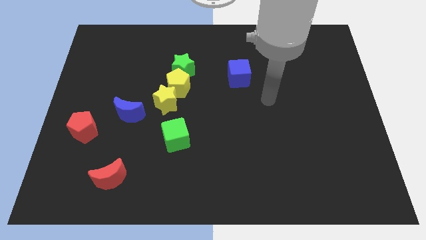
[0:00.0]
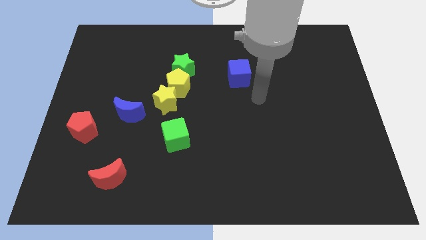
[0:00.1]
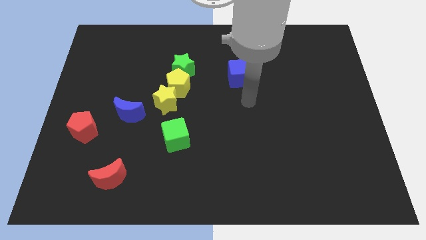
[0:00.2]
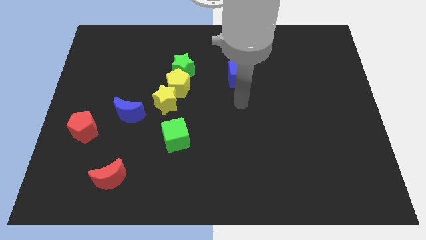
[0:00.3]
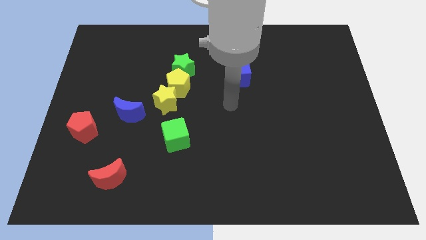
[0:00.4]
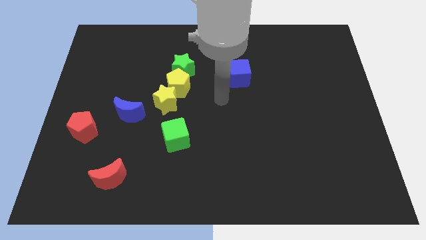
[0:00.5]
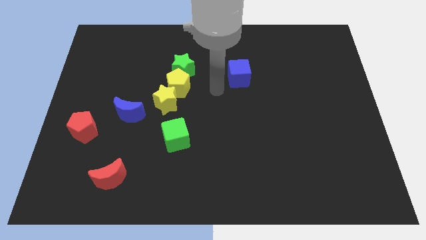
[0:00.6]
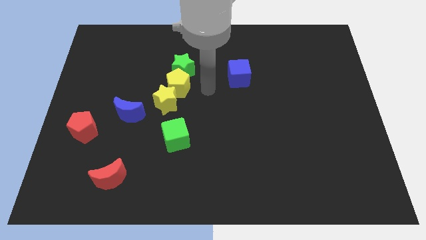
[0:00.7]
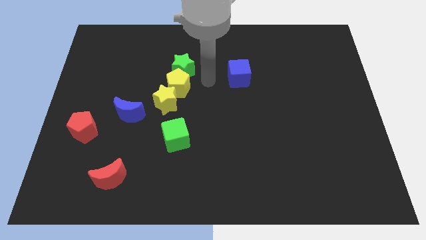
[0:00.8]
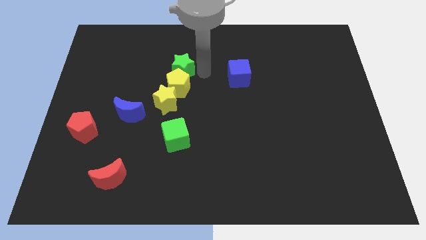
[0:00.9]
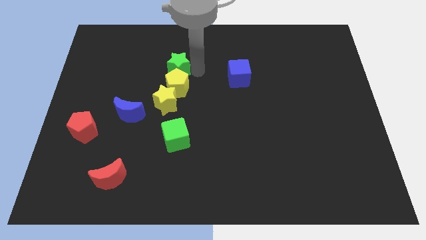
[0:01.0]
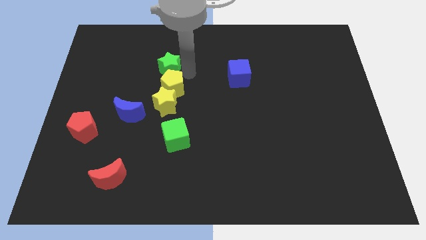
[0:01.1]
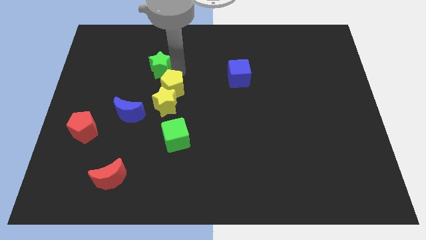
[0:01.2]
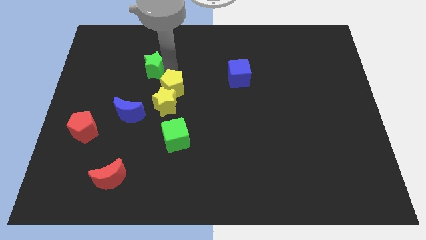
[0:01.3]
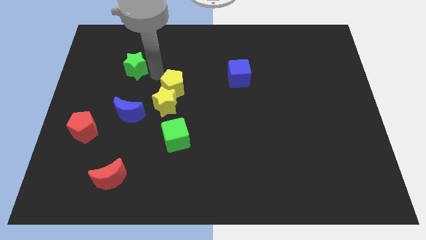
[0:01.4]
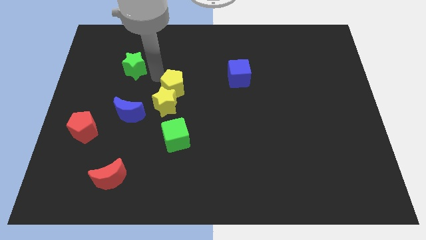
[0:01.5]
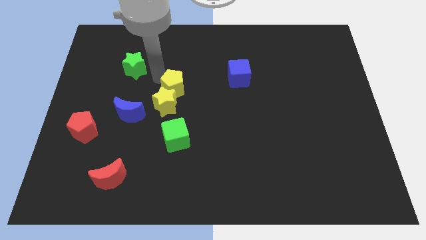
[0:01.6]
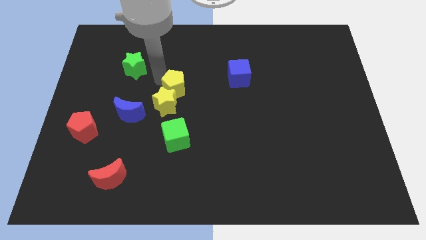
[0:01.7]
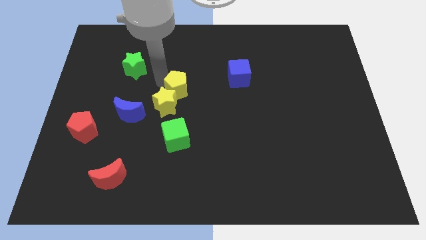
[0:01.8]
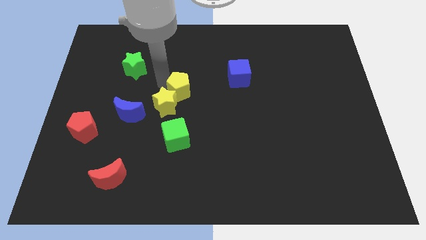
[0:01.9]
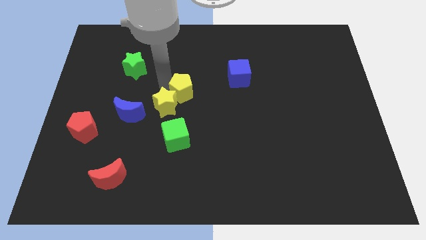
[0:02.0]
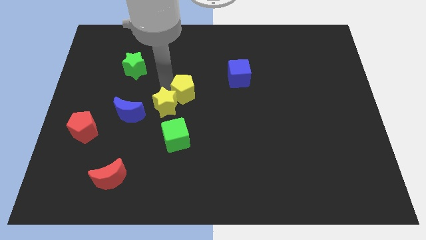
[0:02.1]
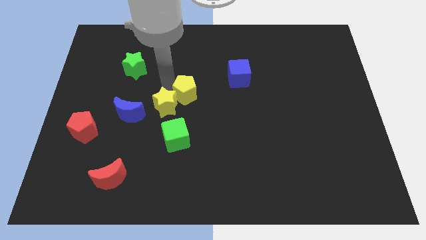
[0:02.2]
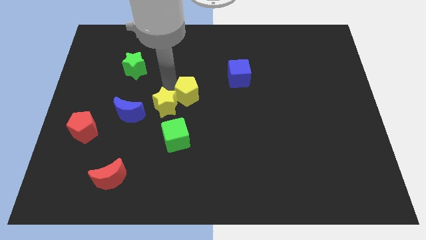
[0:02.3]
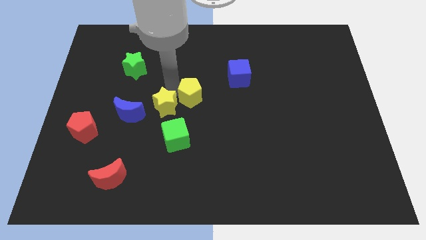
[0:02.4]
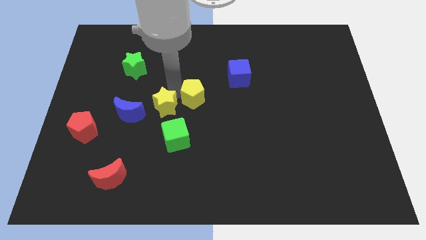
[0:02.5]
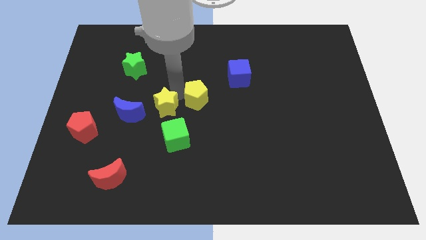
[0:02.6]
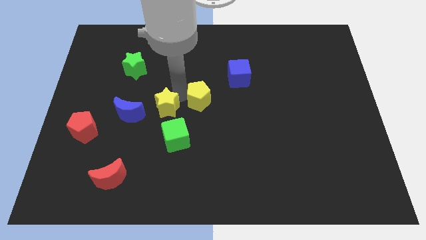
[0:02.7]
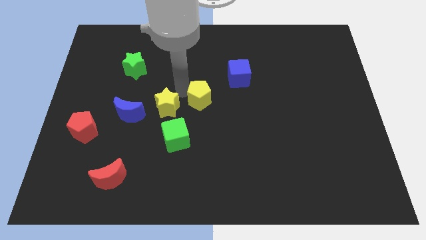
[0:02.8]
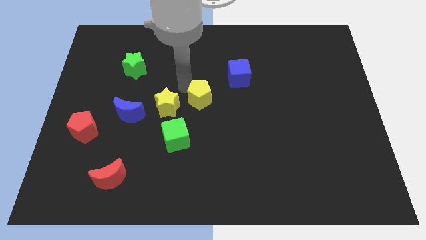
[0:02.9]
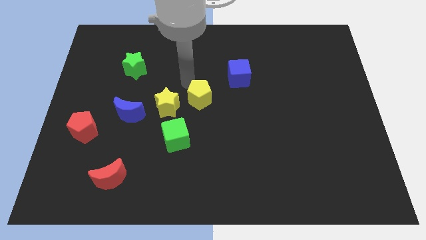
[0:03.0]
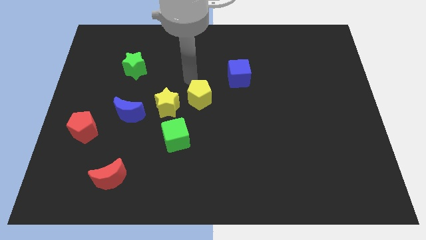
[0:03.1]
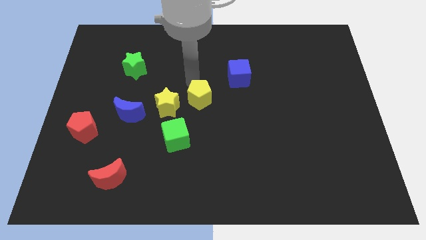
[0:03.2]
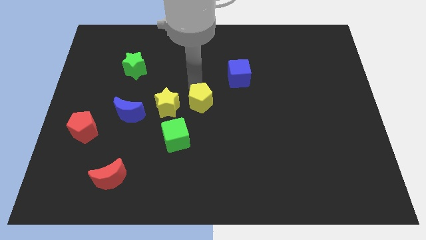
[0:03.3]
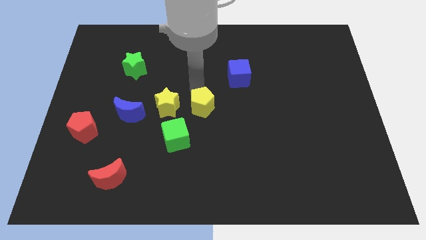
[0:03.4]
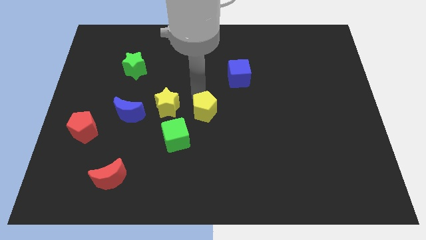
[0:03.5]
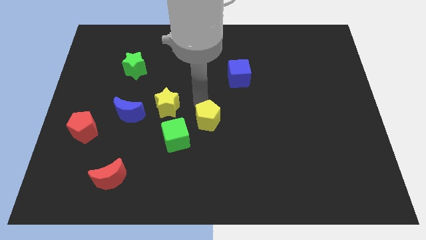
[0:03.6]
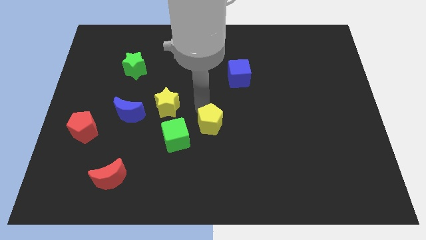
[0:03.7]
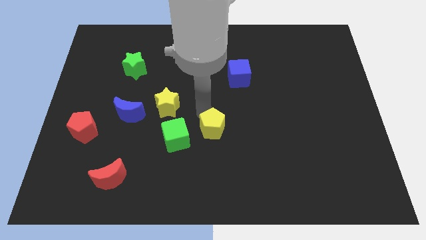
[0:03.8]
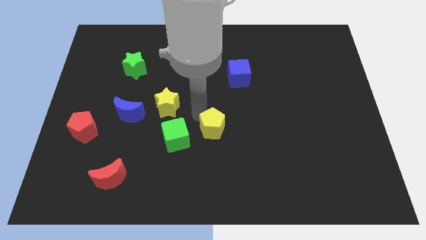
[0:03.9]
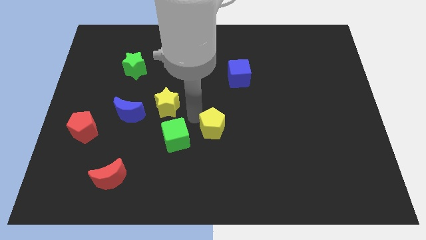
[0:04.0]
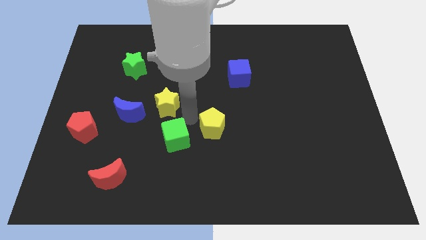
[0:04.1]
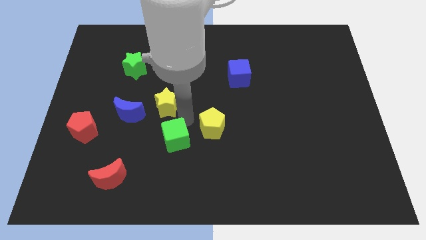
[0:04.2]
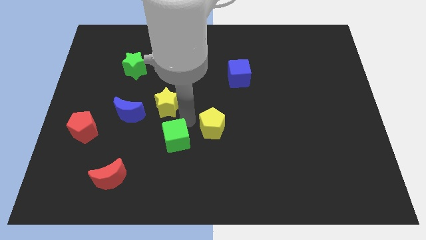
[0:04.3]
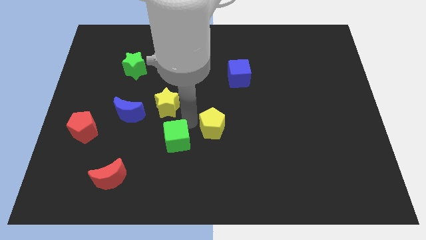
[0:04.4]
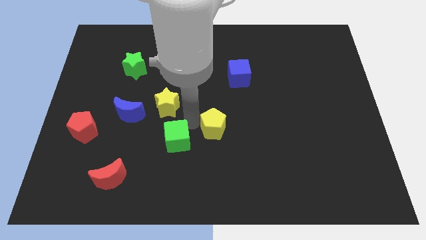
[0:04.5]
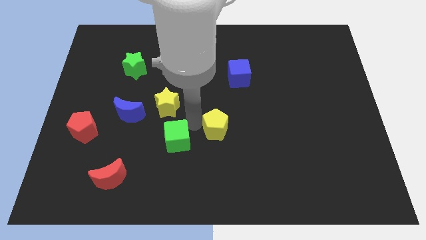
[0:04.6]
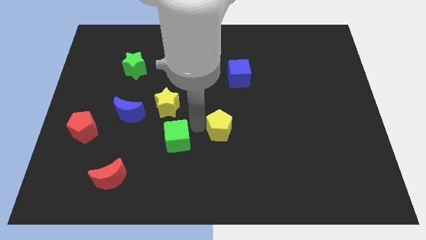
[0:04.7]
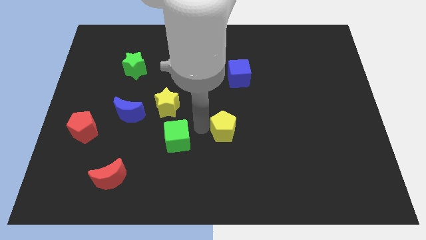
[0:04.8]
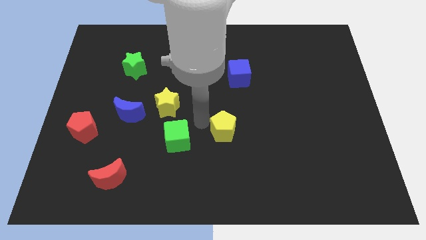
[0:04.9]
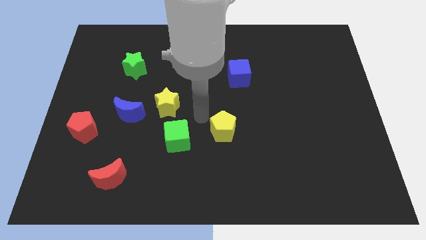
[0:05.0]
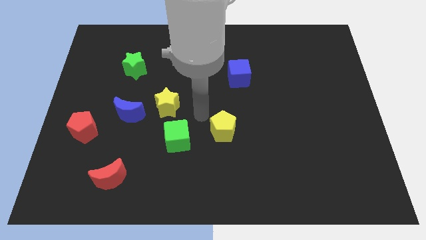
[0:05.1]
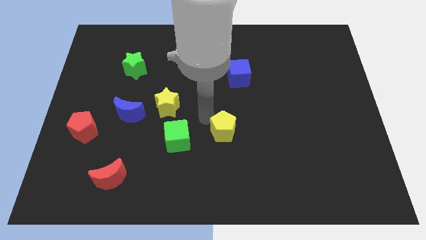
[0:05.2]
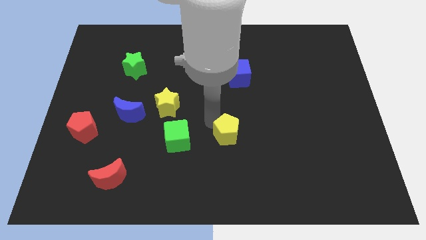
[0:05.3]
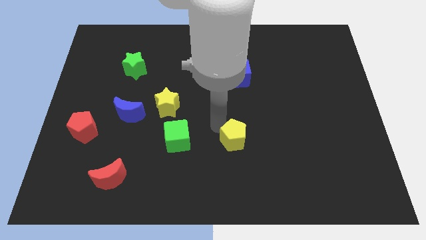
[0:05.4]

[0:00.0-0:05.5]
slide the yellow pentagon downwards and then to the right

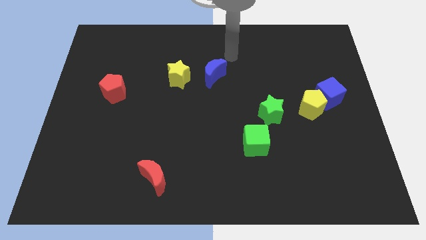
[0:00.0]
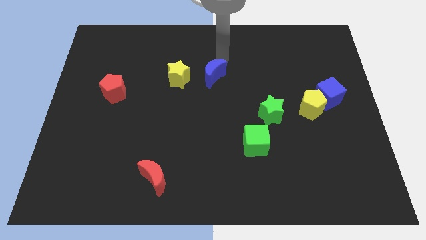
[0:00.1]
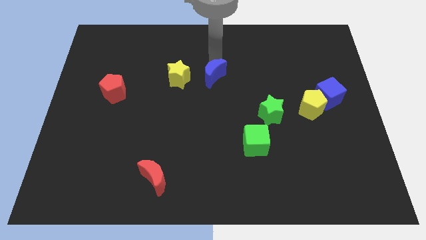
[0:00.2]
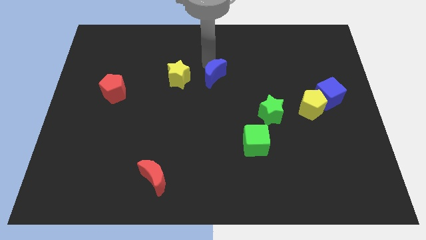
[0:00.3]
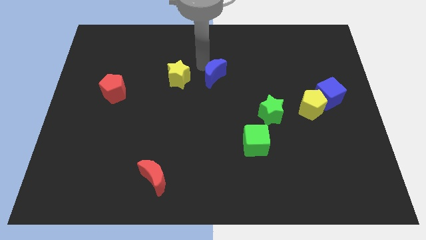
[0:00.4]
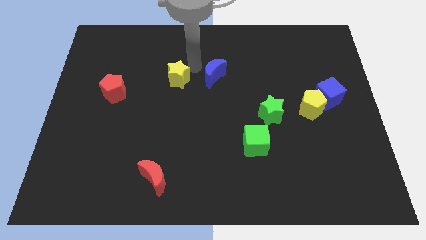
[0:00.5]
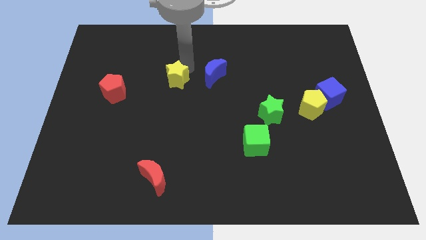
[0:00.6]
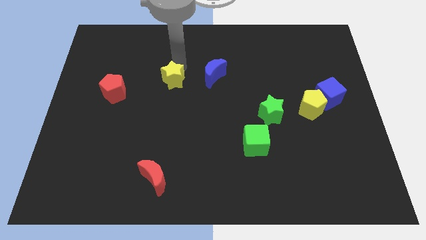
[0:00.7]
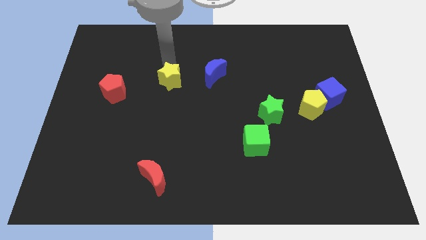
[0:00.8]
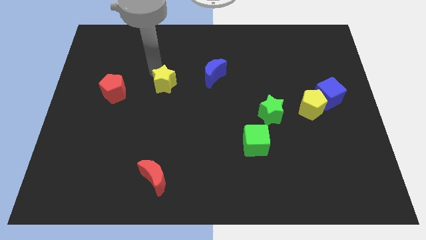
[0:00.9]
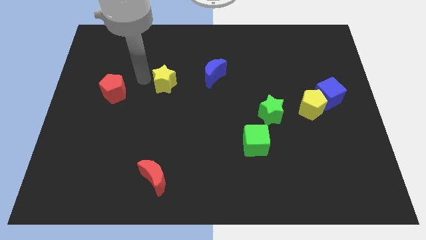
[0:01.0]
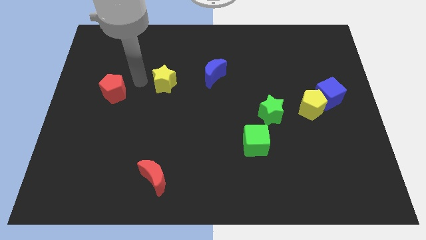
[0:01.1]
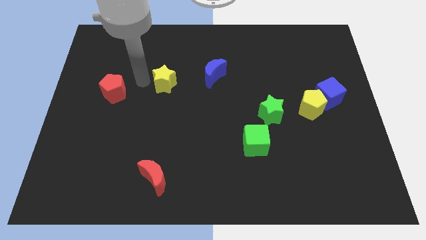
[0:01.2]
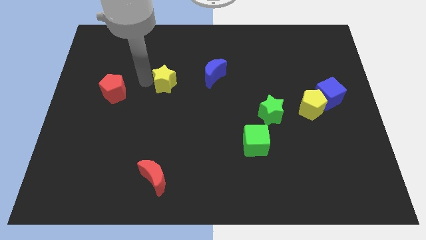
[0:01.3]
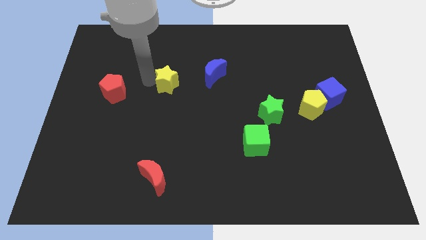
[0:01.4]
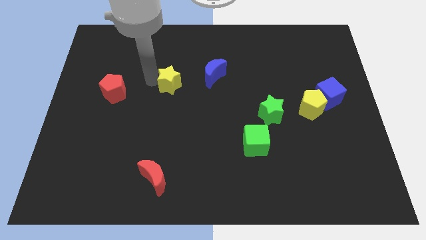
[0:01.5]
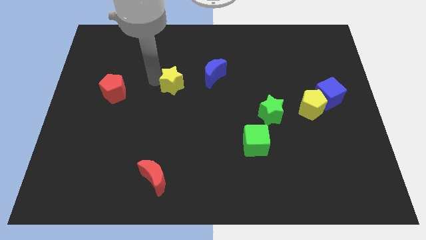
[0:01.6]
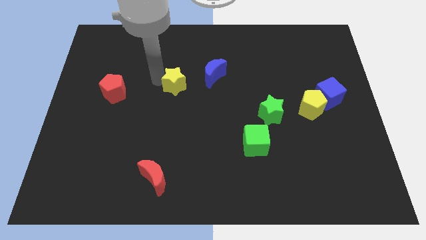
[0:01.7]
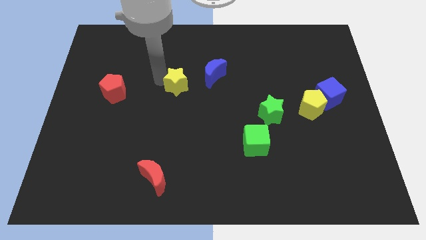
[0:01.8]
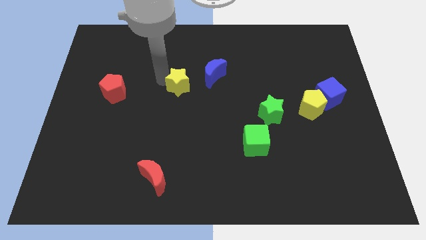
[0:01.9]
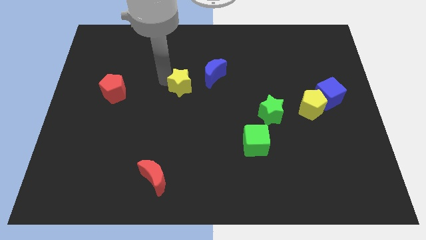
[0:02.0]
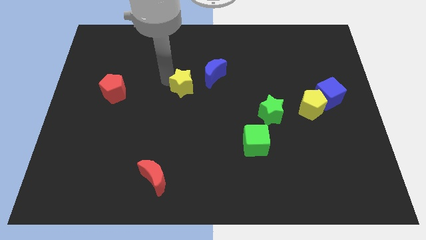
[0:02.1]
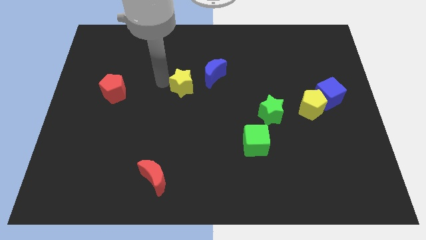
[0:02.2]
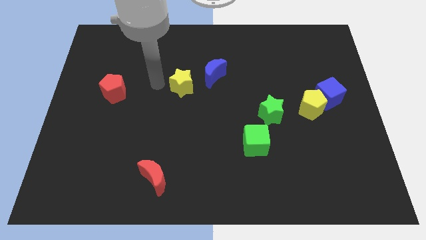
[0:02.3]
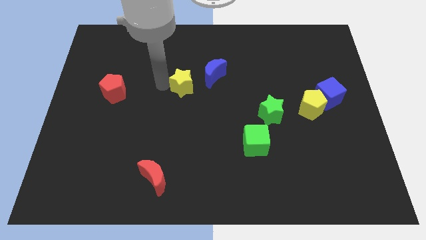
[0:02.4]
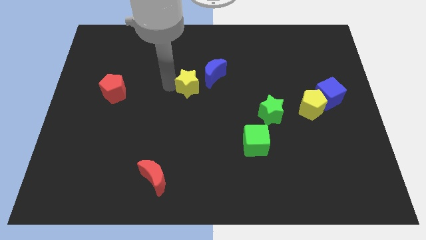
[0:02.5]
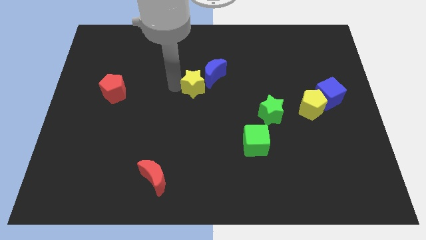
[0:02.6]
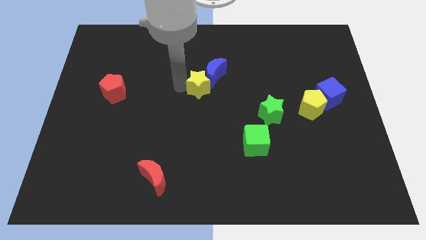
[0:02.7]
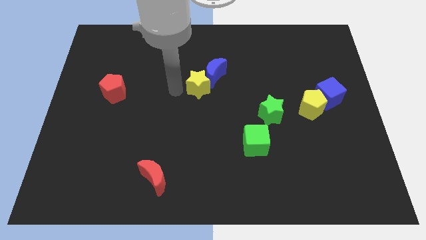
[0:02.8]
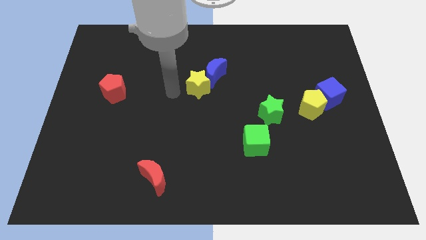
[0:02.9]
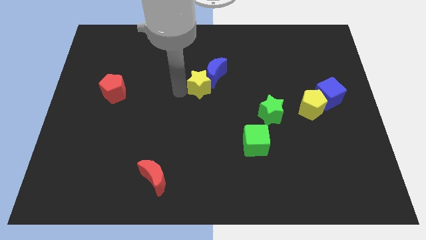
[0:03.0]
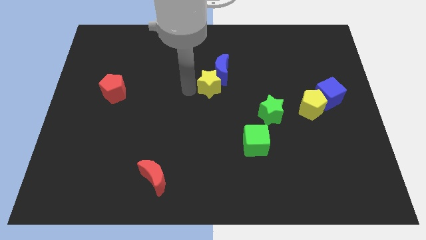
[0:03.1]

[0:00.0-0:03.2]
push the yellow star right a little
